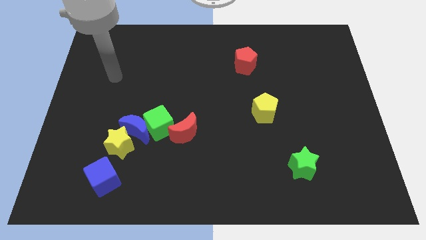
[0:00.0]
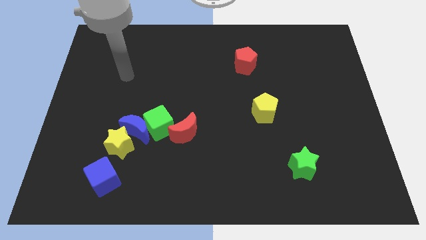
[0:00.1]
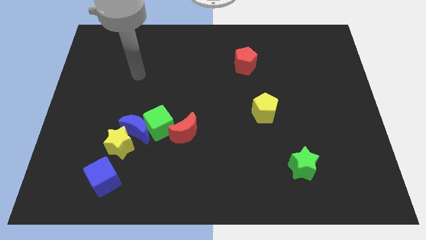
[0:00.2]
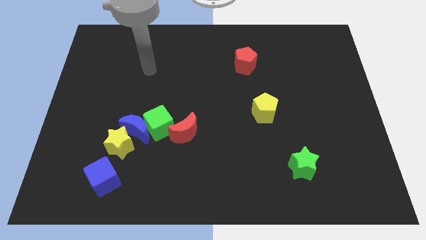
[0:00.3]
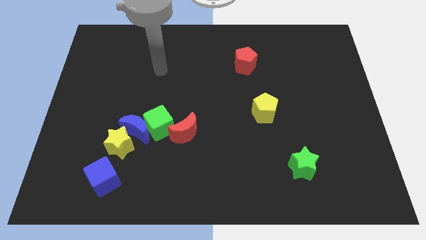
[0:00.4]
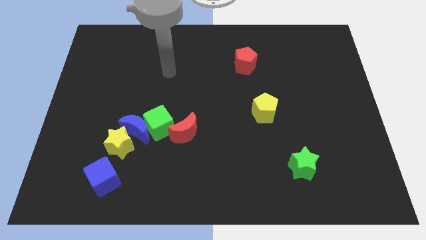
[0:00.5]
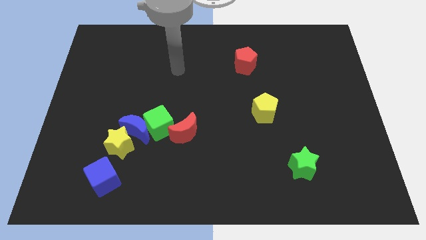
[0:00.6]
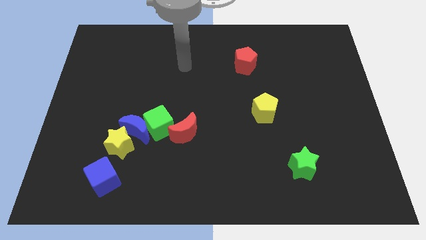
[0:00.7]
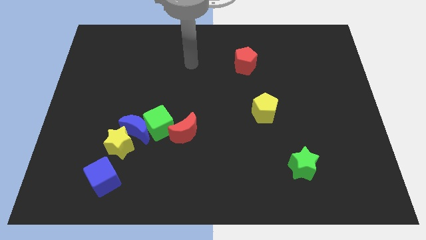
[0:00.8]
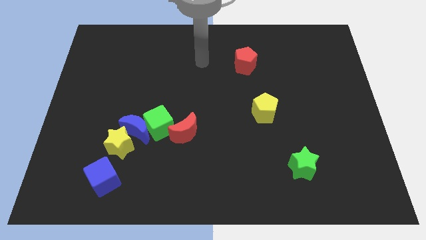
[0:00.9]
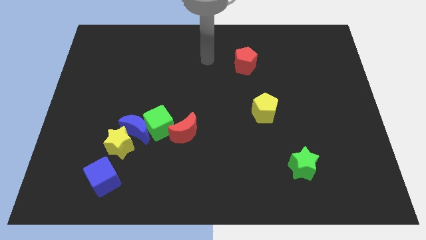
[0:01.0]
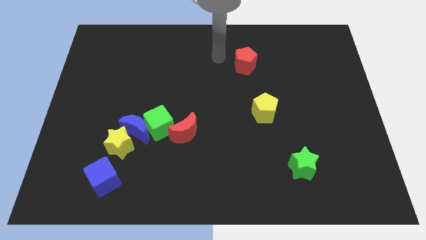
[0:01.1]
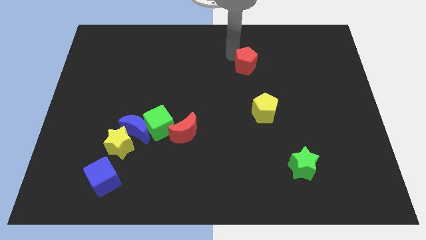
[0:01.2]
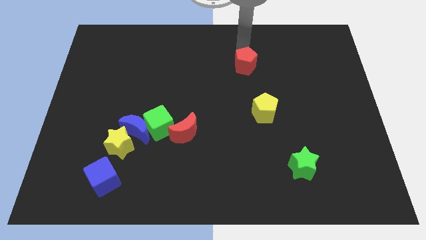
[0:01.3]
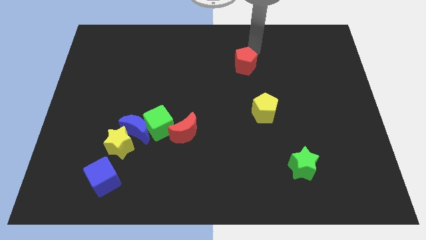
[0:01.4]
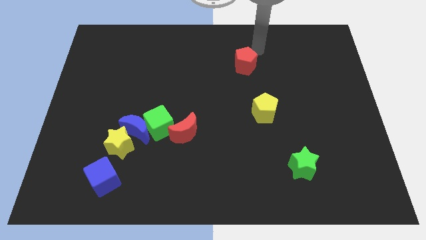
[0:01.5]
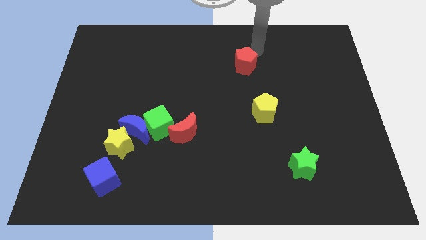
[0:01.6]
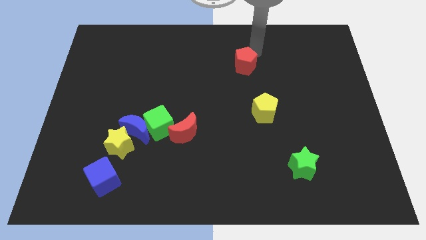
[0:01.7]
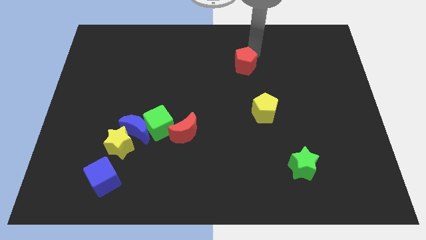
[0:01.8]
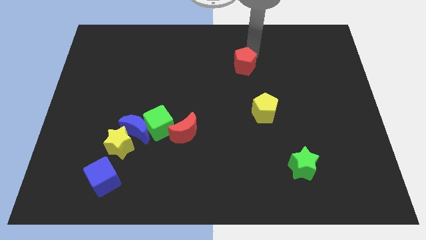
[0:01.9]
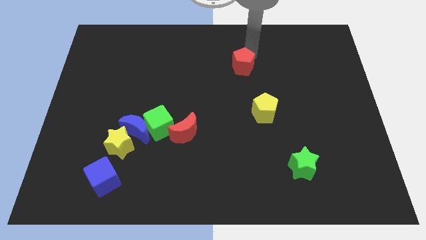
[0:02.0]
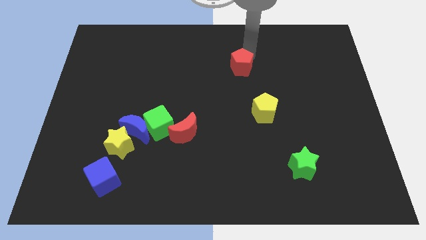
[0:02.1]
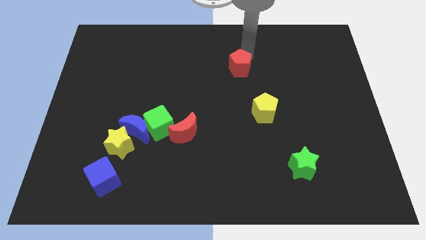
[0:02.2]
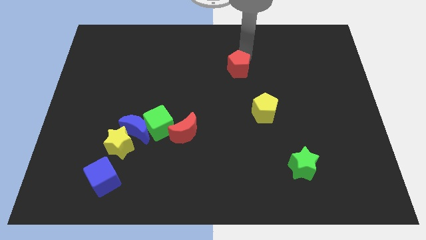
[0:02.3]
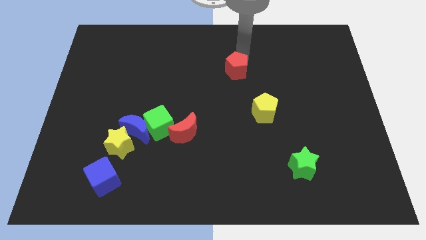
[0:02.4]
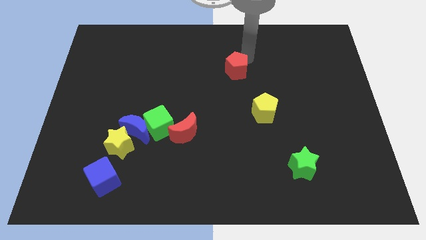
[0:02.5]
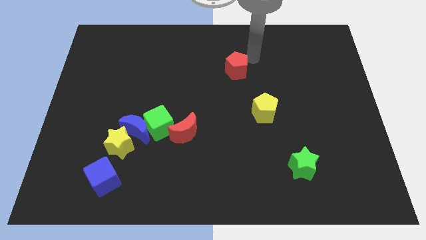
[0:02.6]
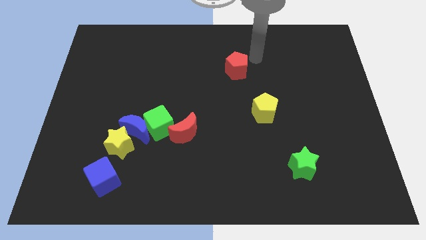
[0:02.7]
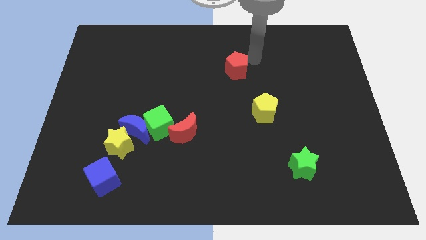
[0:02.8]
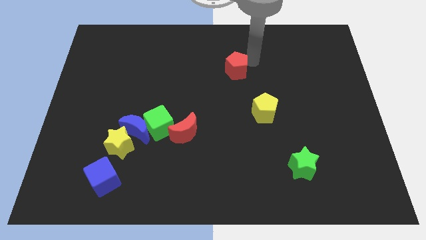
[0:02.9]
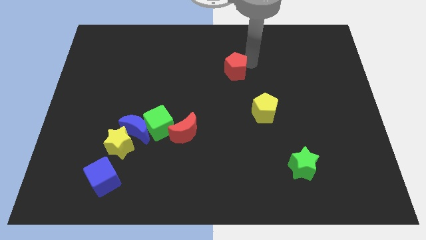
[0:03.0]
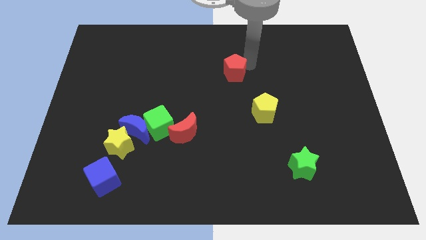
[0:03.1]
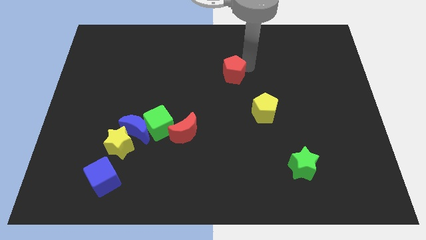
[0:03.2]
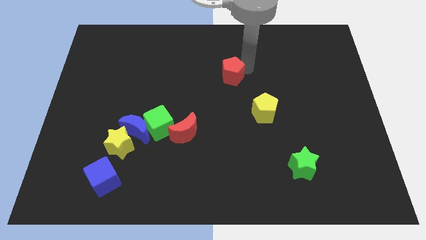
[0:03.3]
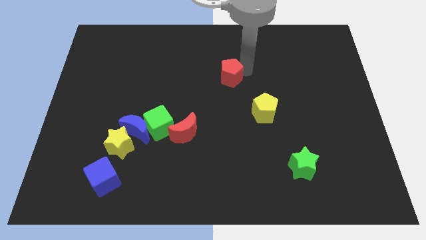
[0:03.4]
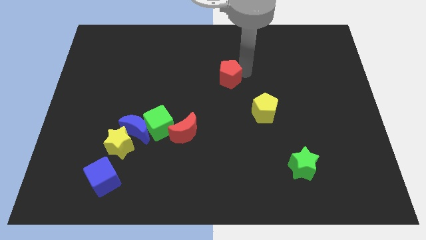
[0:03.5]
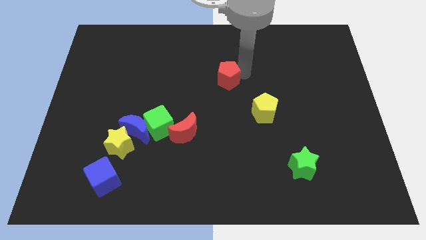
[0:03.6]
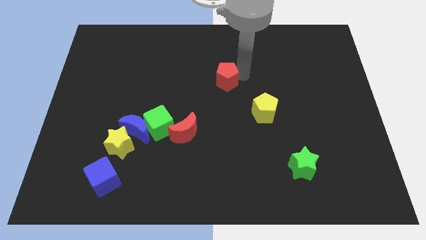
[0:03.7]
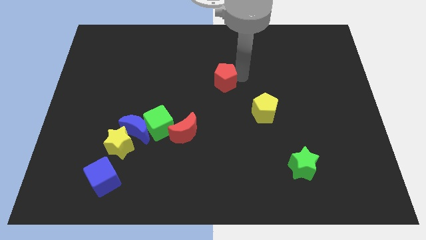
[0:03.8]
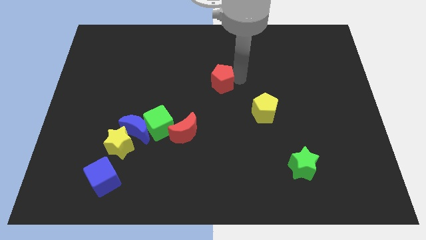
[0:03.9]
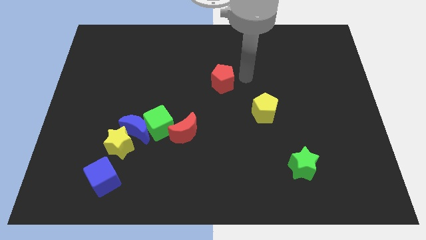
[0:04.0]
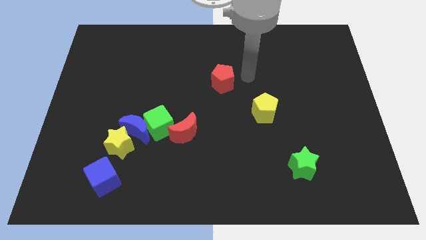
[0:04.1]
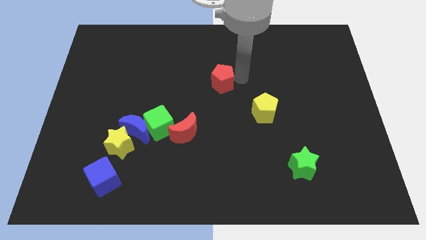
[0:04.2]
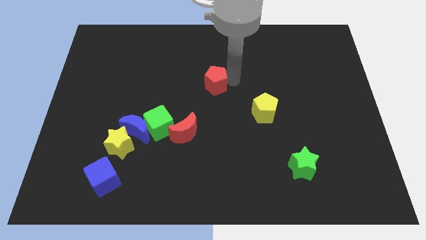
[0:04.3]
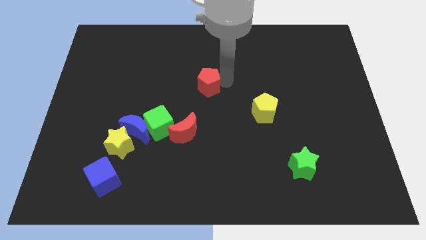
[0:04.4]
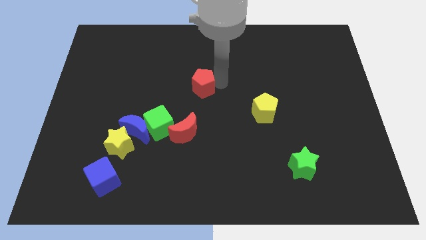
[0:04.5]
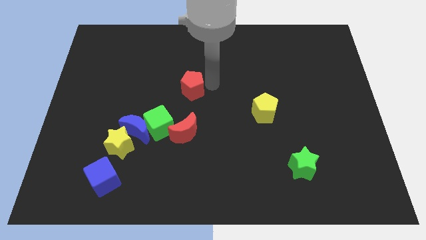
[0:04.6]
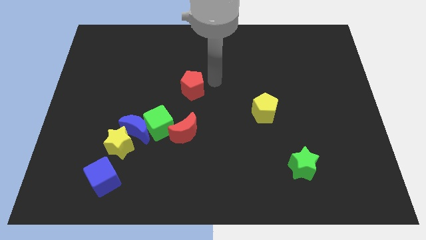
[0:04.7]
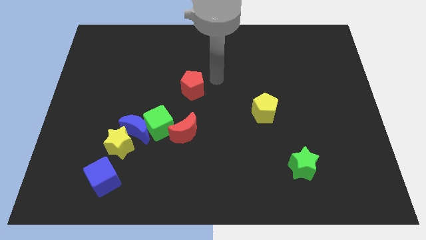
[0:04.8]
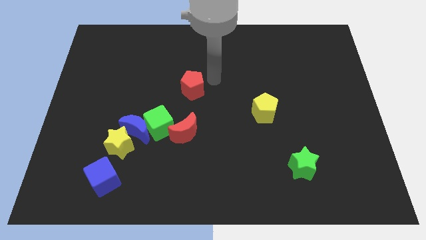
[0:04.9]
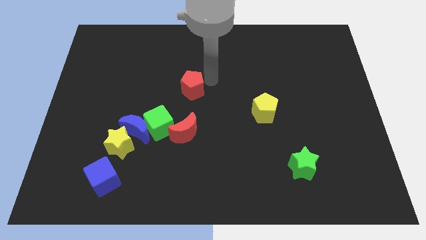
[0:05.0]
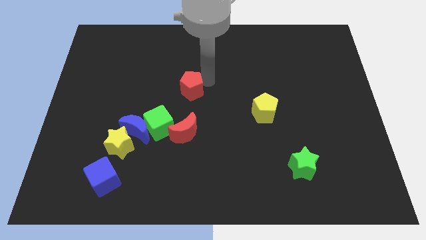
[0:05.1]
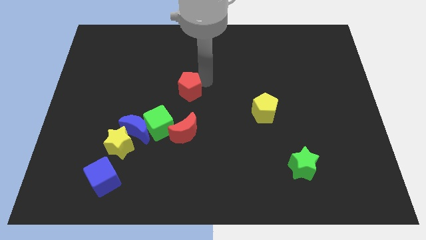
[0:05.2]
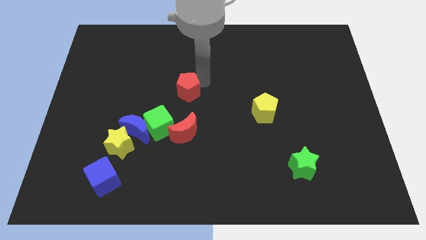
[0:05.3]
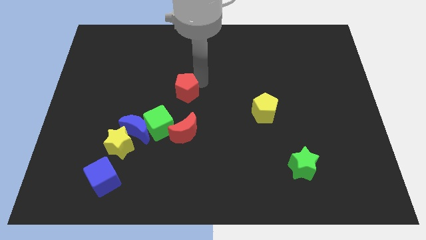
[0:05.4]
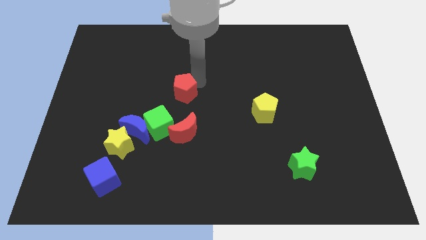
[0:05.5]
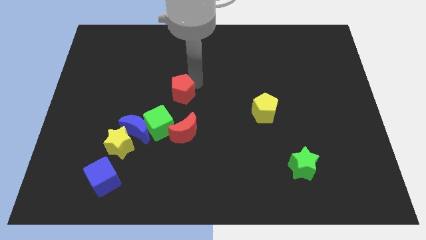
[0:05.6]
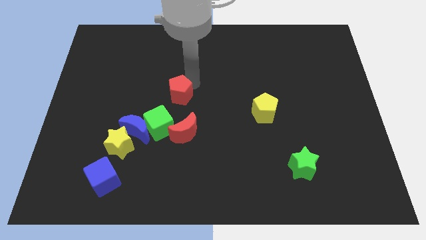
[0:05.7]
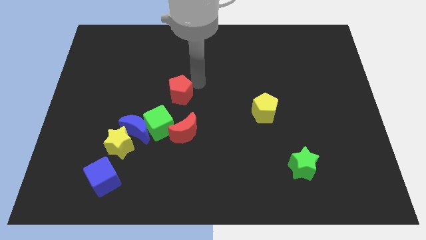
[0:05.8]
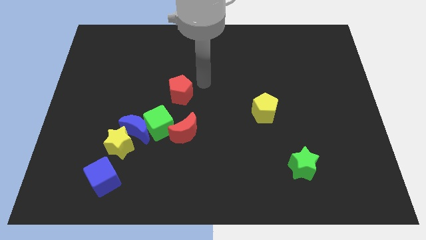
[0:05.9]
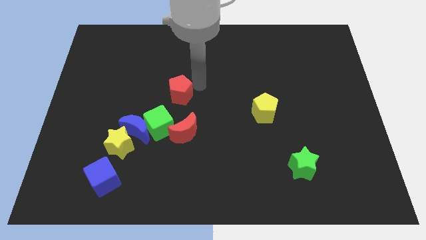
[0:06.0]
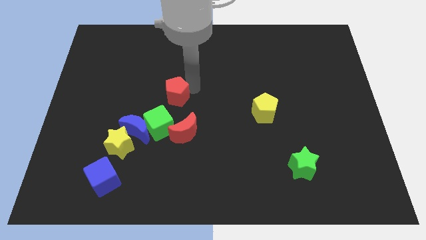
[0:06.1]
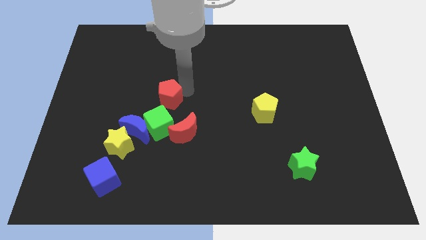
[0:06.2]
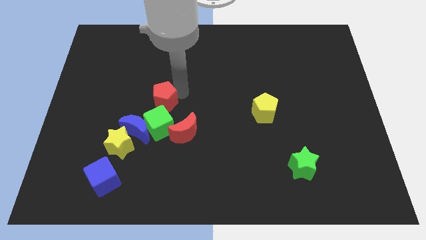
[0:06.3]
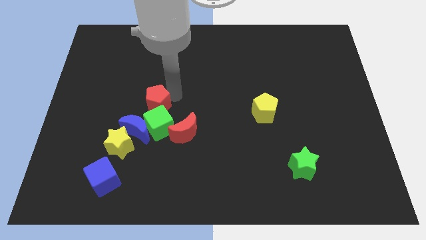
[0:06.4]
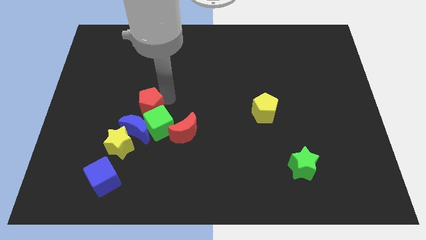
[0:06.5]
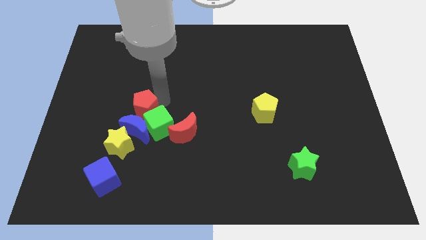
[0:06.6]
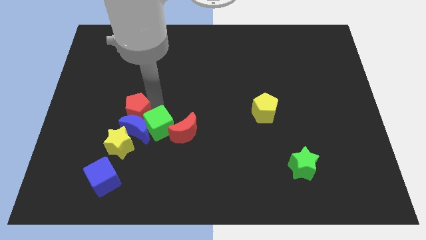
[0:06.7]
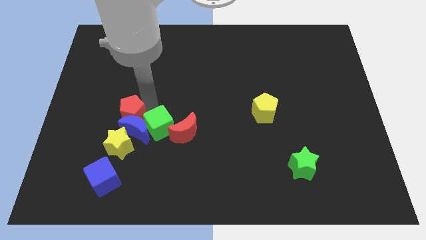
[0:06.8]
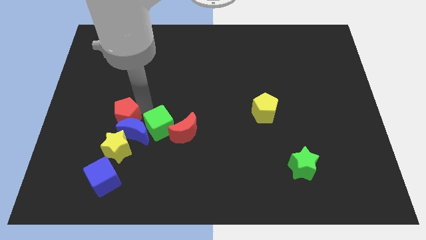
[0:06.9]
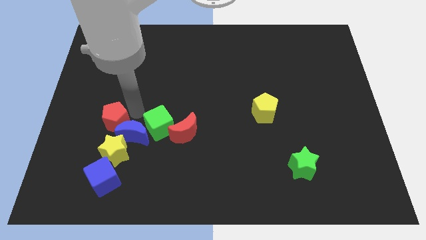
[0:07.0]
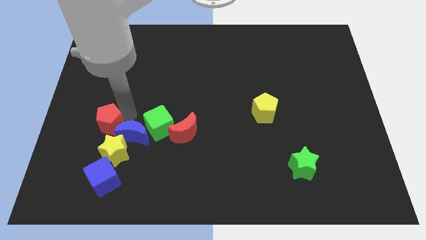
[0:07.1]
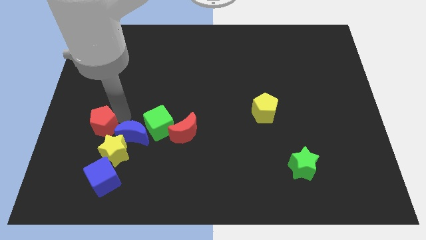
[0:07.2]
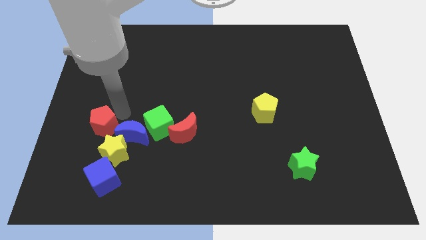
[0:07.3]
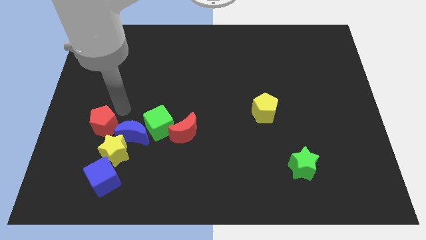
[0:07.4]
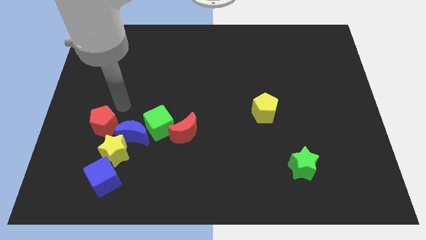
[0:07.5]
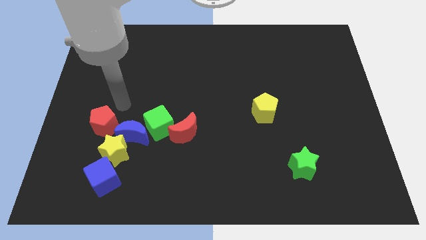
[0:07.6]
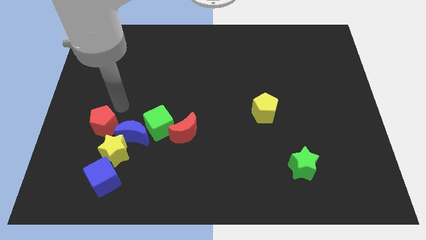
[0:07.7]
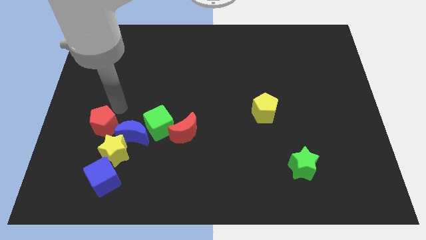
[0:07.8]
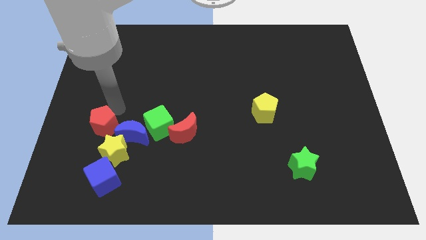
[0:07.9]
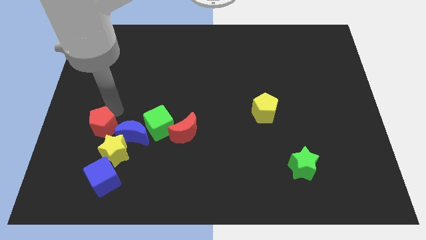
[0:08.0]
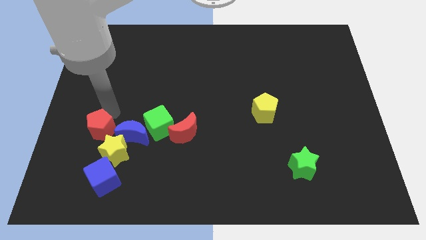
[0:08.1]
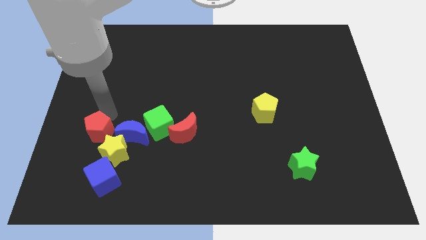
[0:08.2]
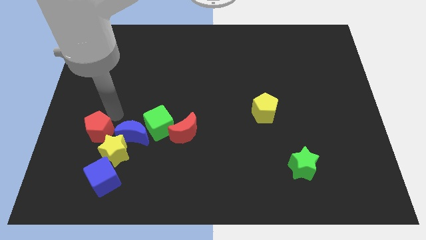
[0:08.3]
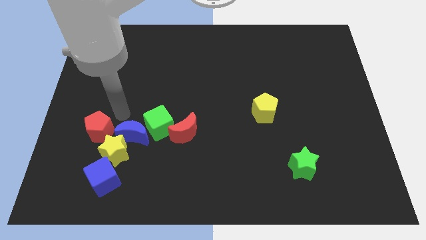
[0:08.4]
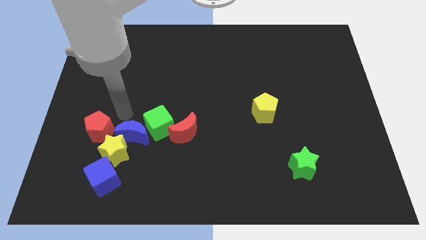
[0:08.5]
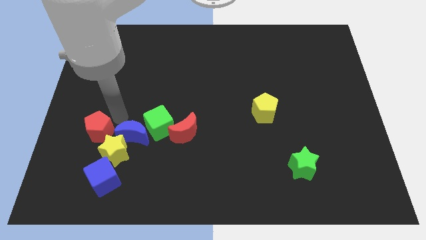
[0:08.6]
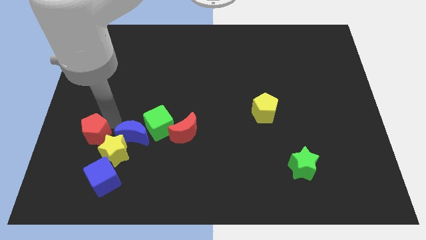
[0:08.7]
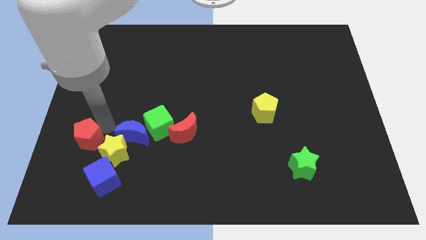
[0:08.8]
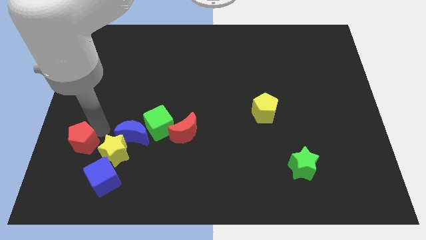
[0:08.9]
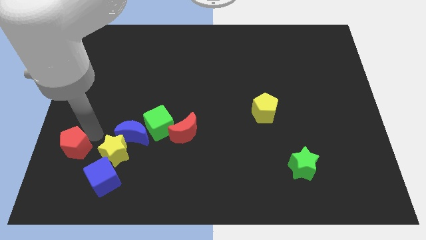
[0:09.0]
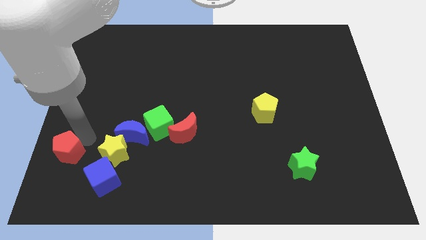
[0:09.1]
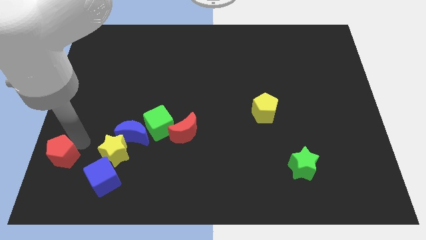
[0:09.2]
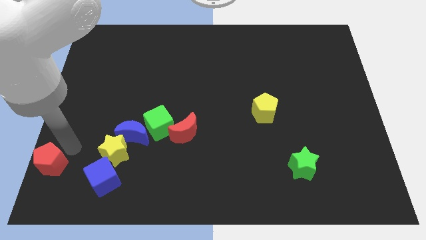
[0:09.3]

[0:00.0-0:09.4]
move the red pentagon to the lower left corner
